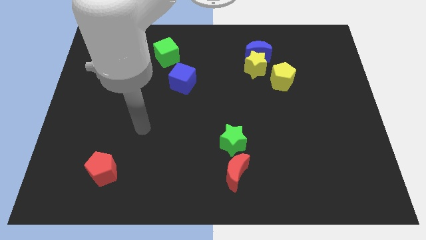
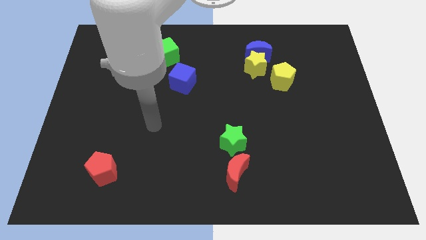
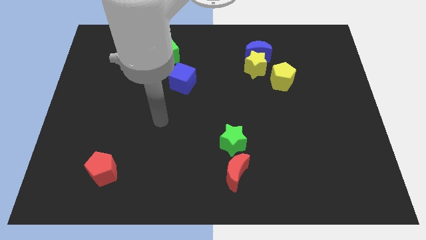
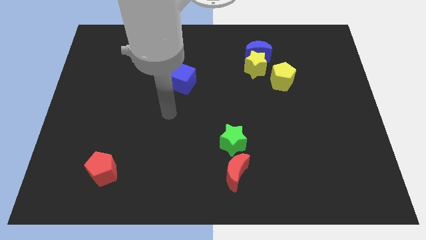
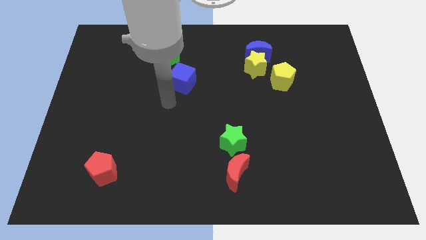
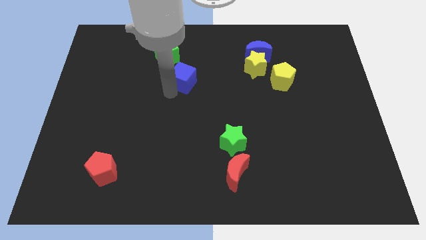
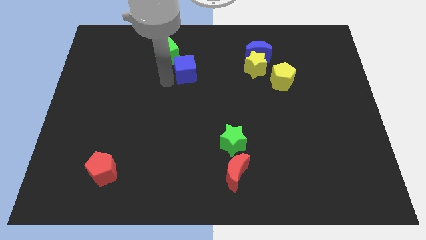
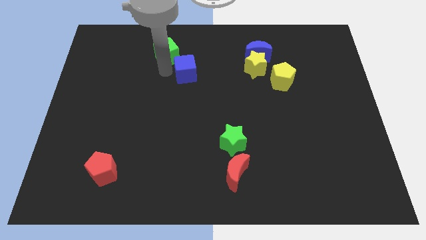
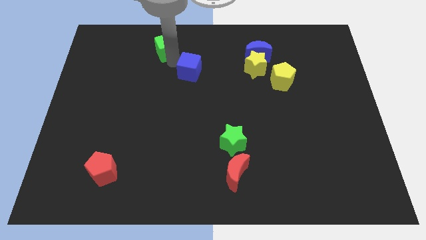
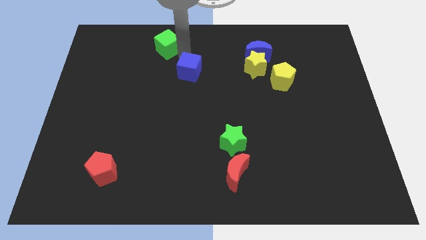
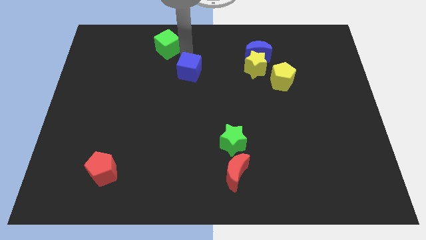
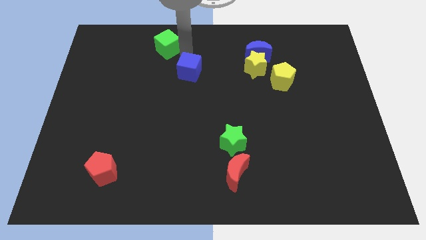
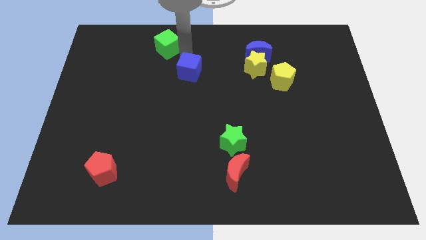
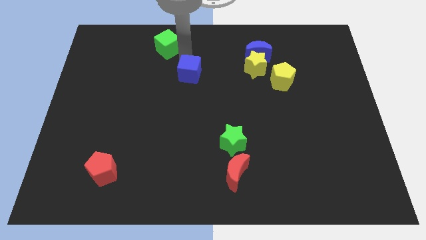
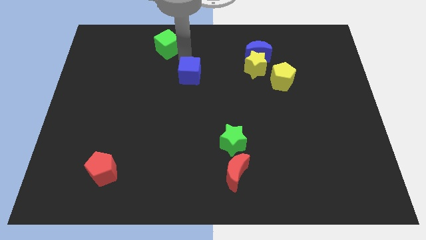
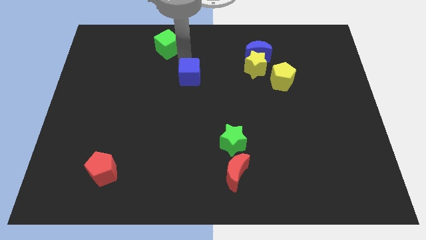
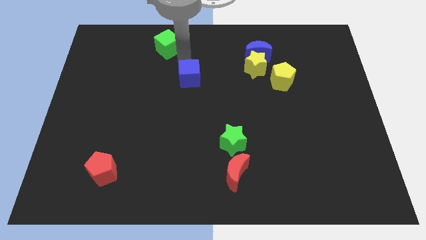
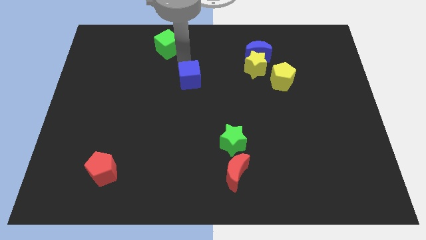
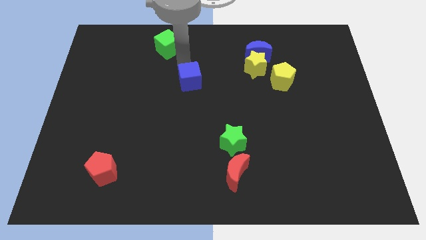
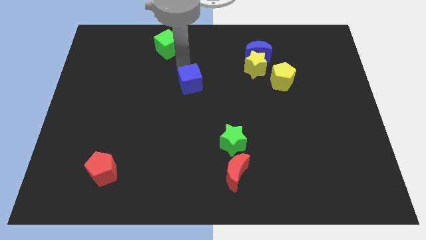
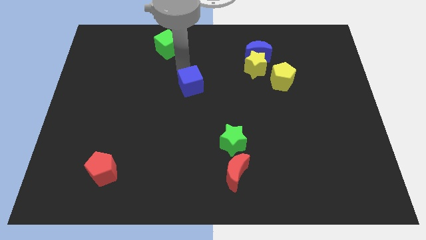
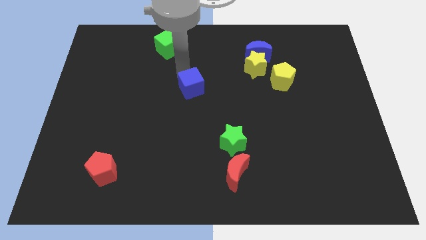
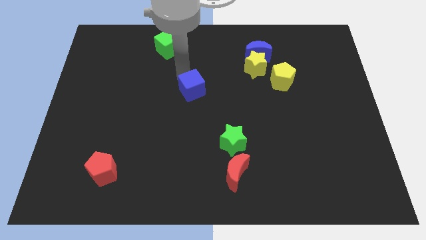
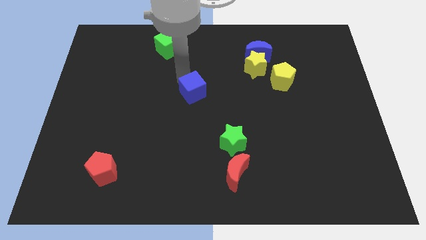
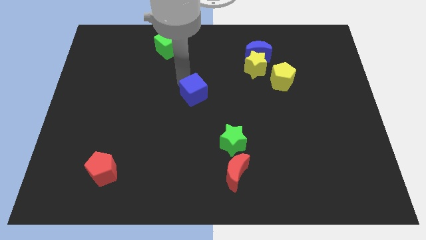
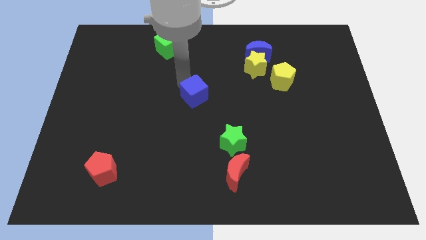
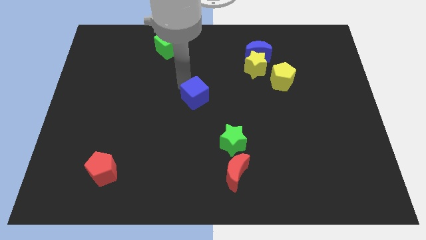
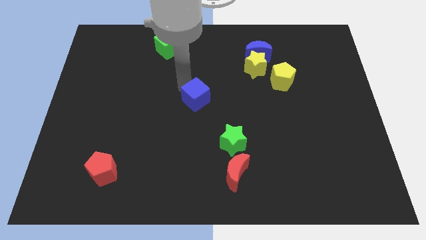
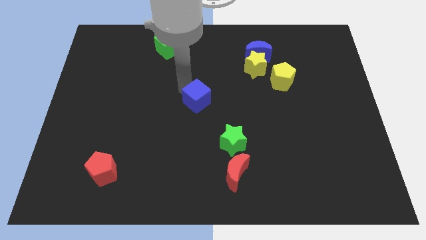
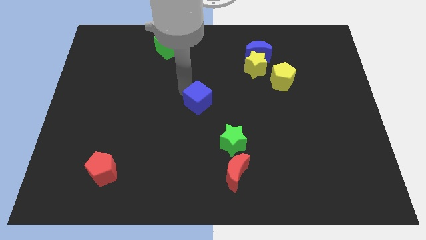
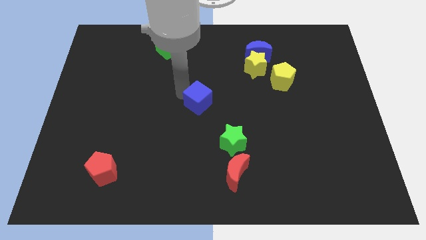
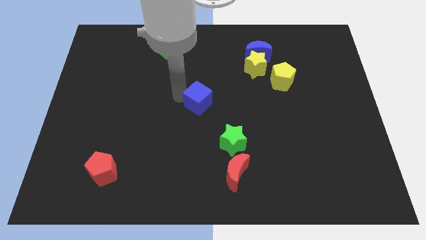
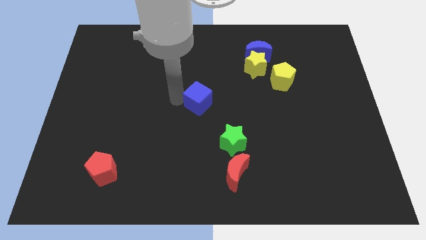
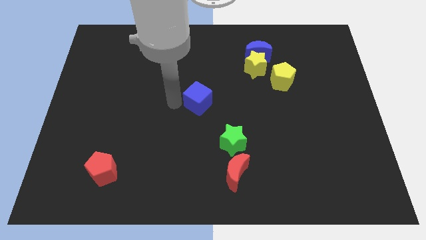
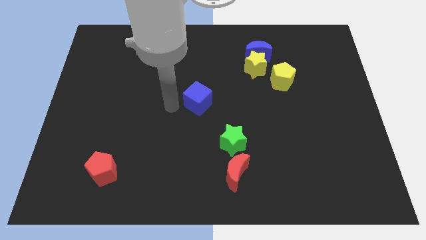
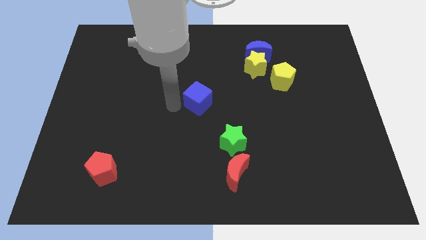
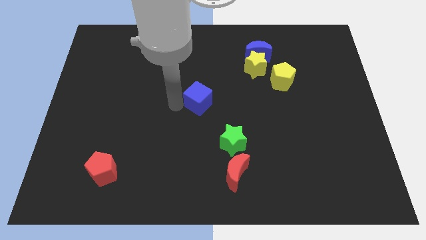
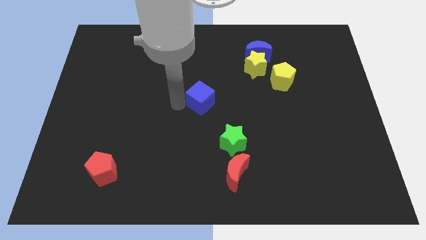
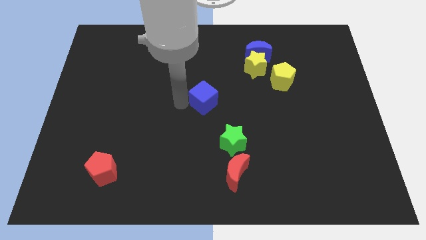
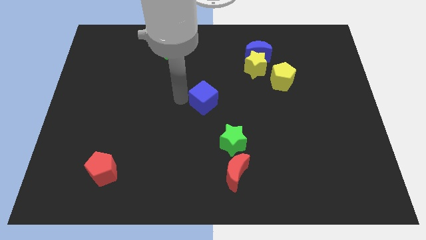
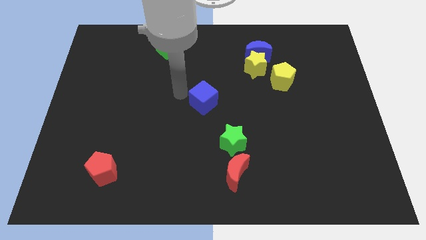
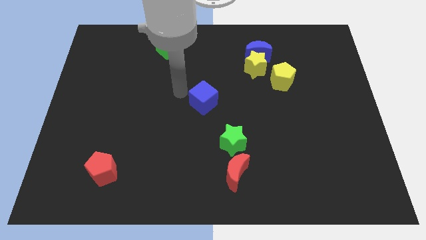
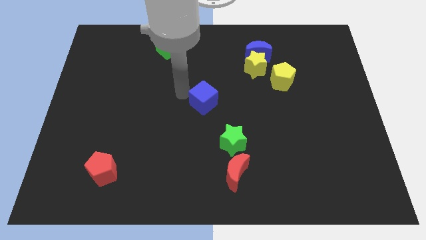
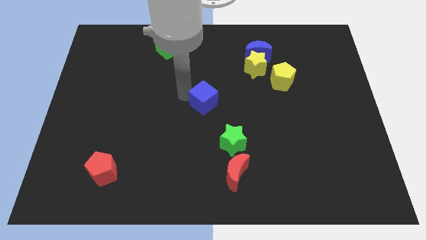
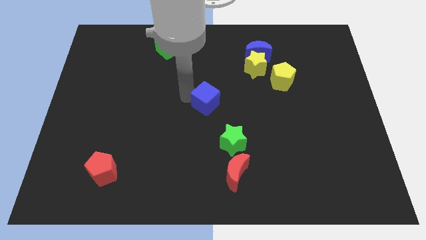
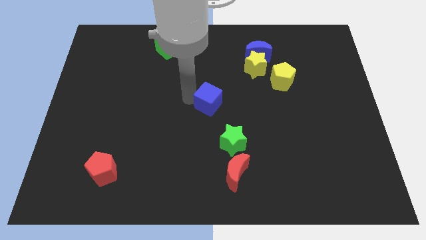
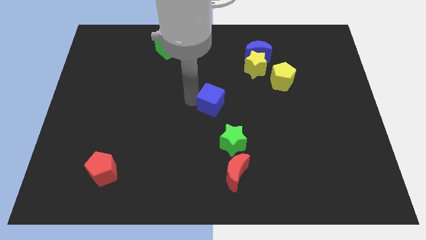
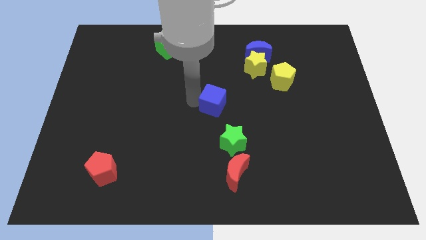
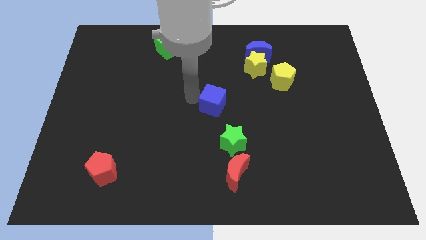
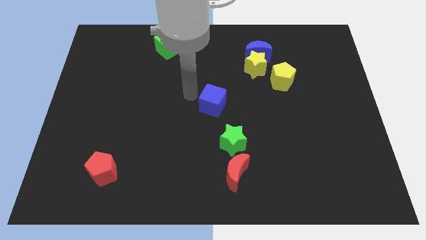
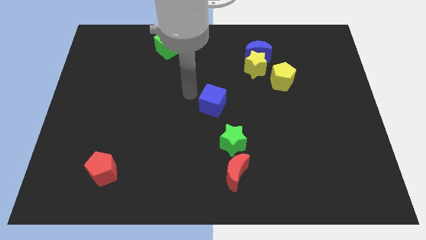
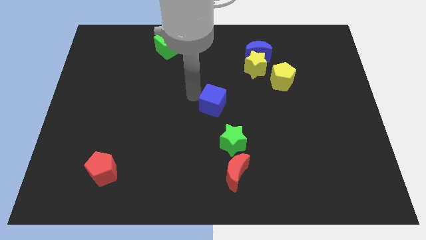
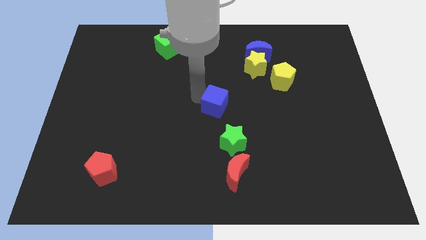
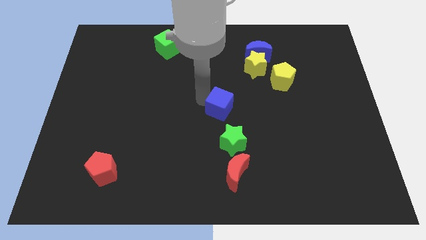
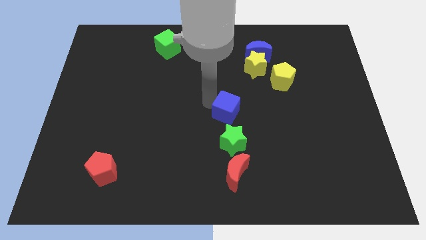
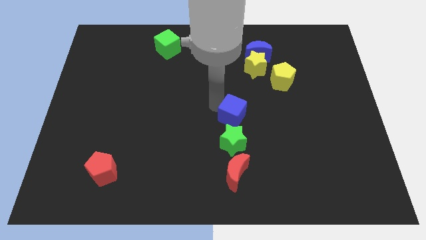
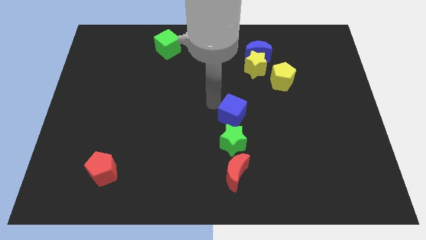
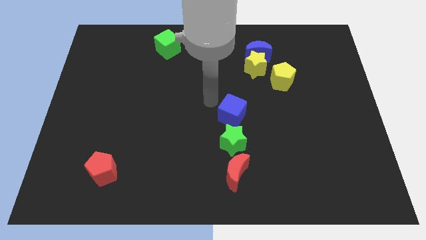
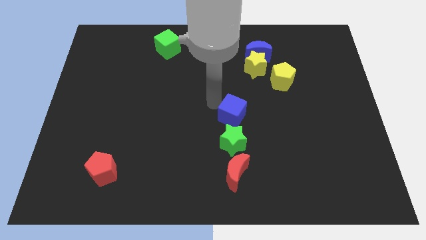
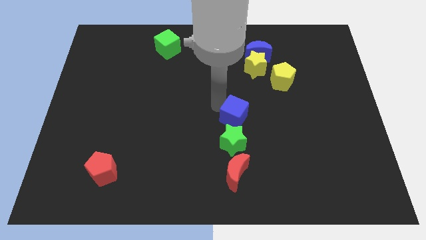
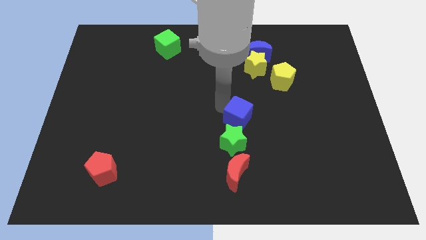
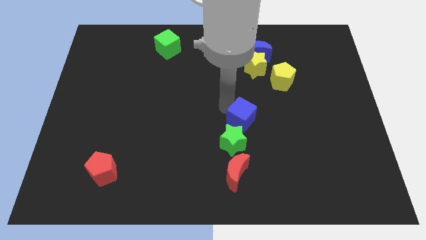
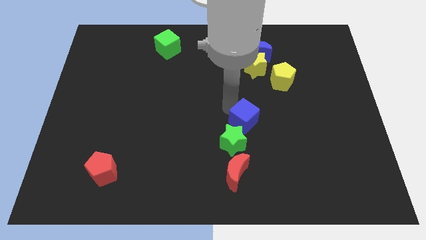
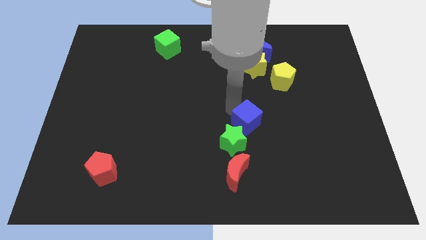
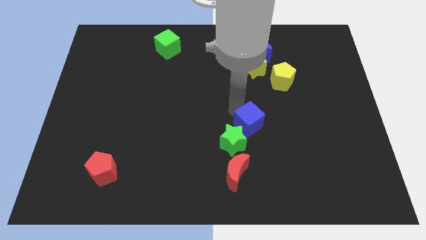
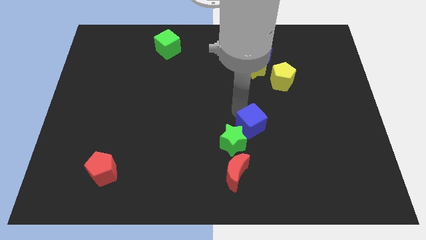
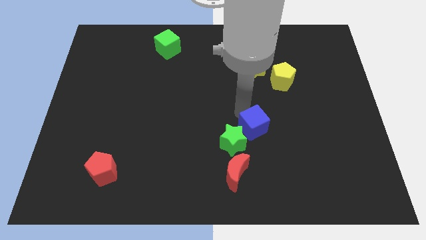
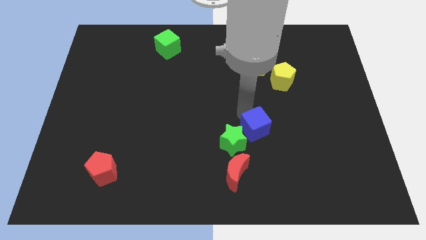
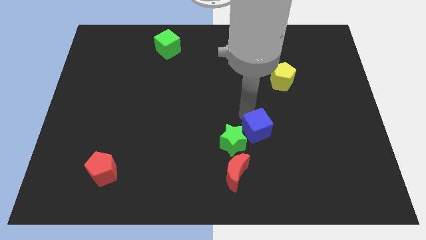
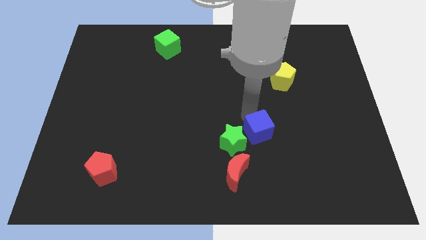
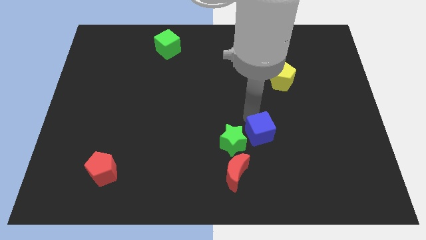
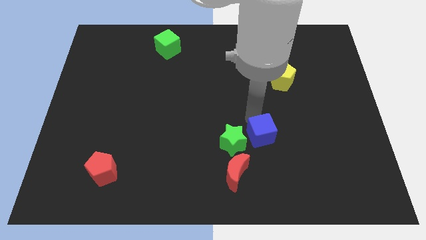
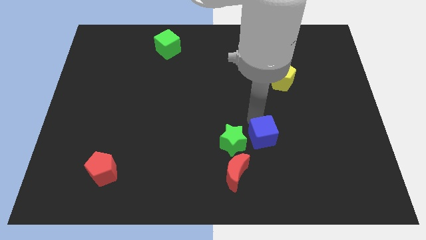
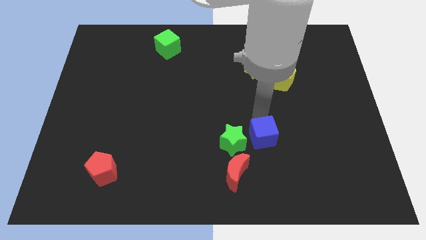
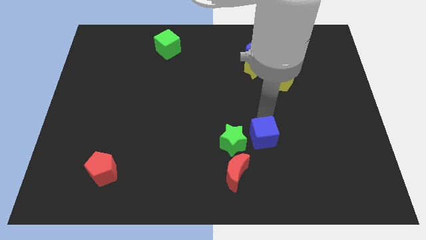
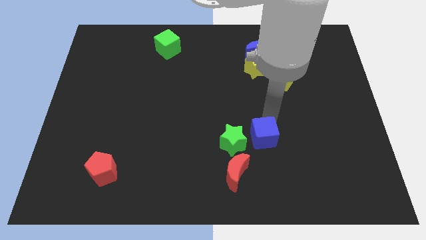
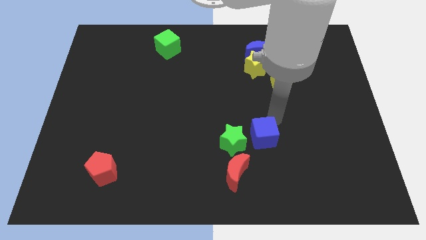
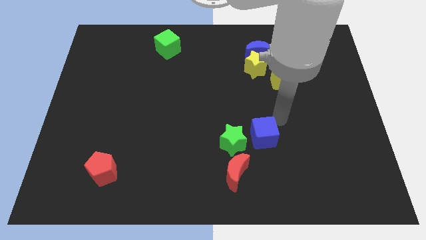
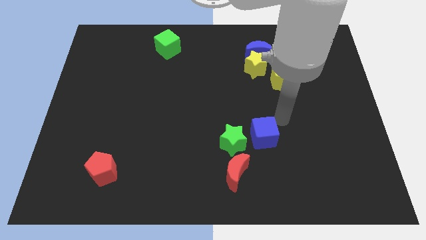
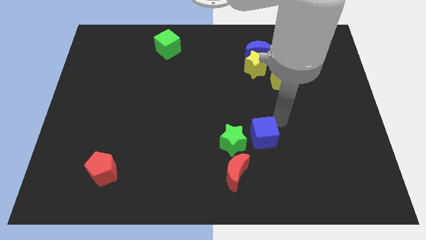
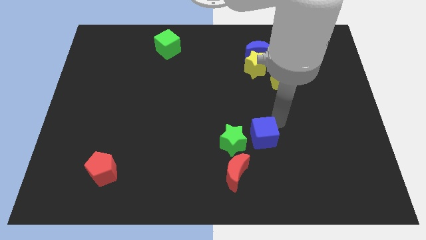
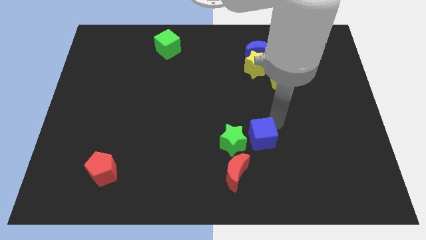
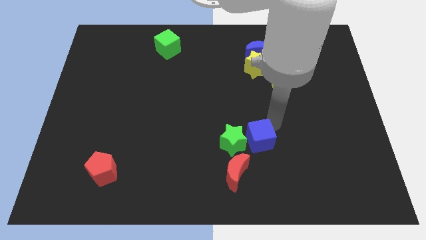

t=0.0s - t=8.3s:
move the blue cube to the bottom right of the green star
